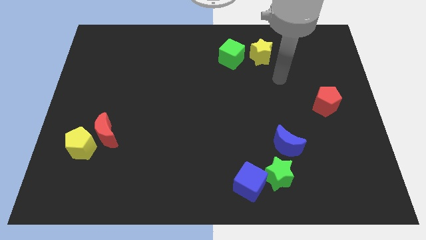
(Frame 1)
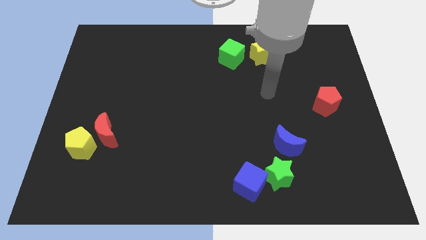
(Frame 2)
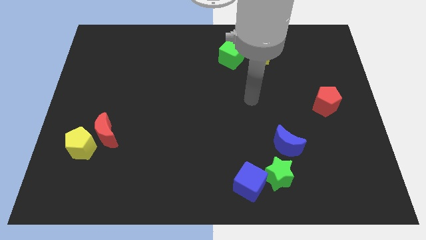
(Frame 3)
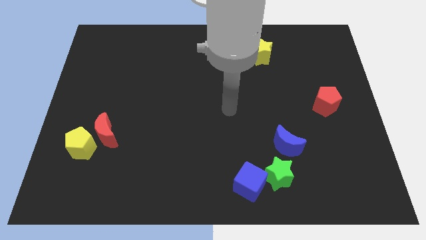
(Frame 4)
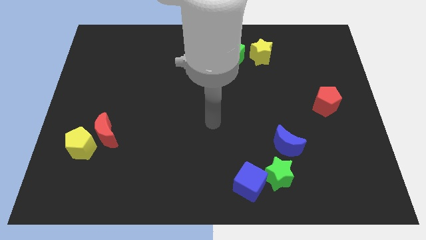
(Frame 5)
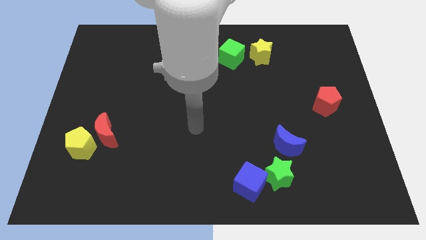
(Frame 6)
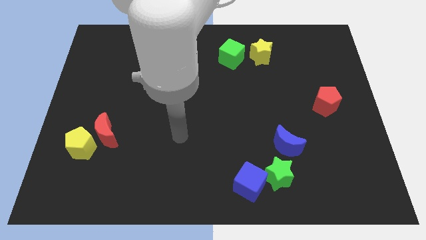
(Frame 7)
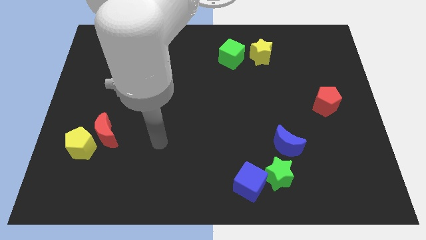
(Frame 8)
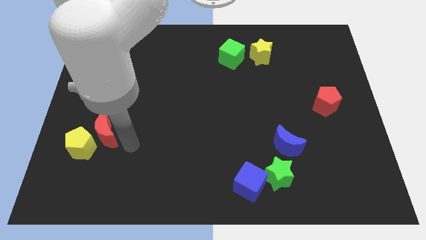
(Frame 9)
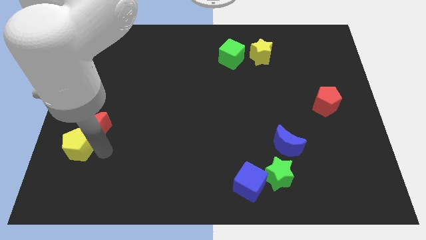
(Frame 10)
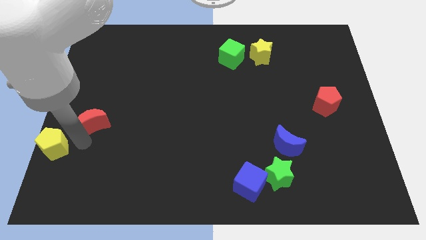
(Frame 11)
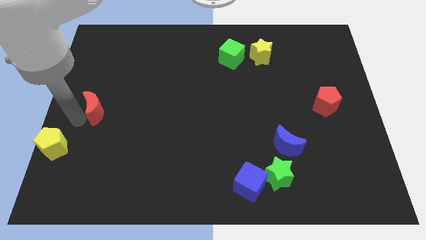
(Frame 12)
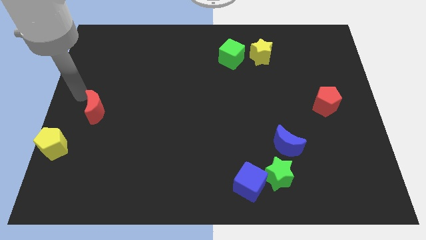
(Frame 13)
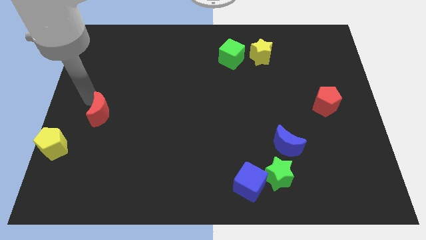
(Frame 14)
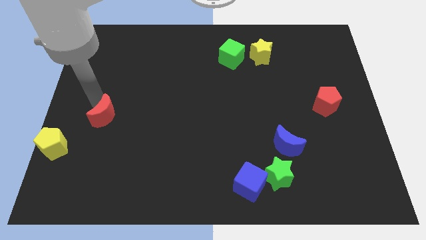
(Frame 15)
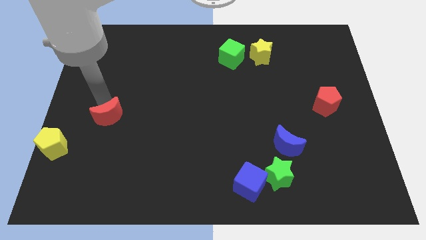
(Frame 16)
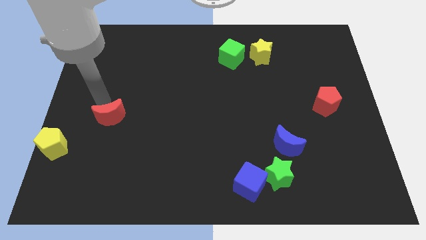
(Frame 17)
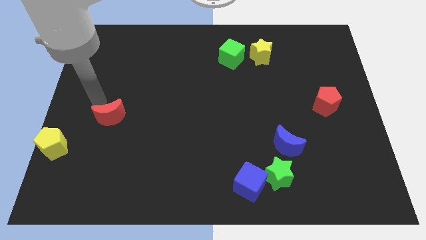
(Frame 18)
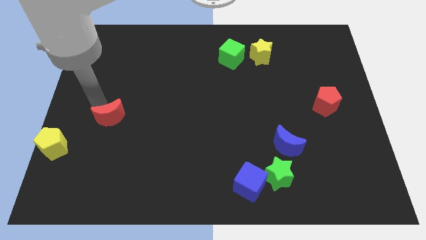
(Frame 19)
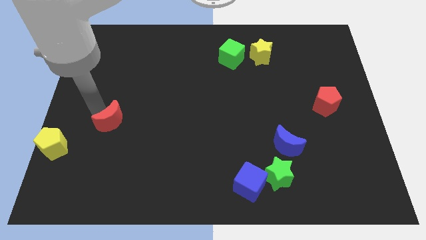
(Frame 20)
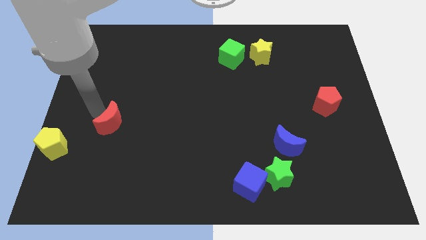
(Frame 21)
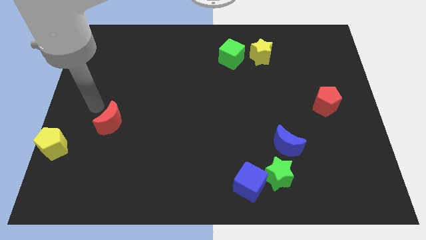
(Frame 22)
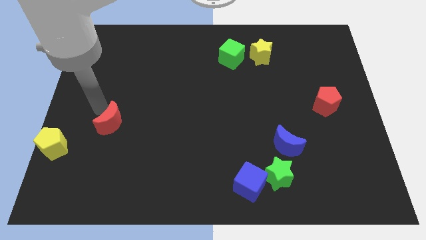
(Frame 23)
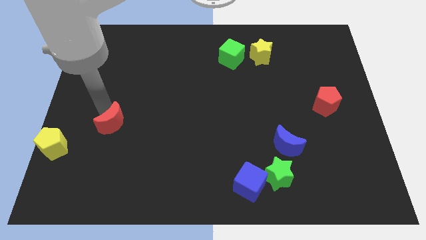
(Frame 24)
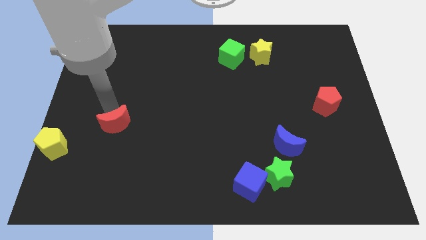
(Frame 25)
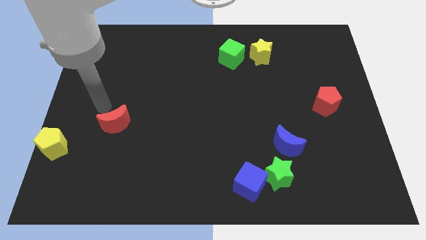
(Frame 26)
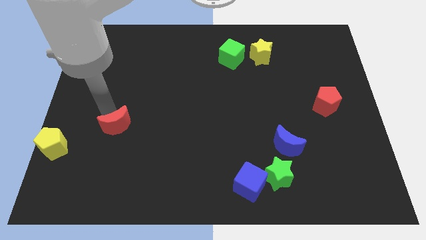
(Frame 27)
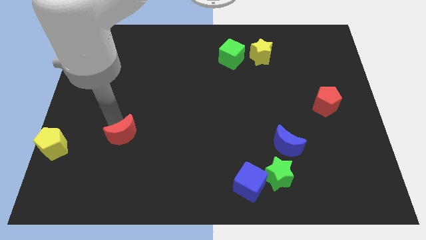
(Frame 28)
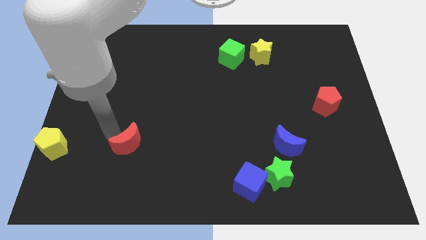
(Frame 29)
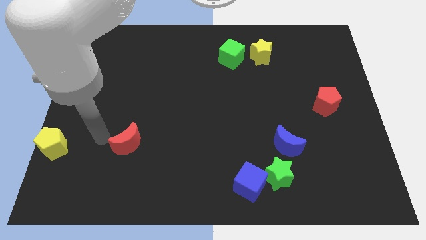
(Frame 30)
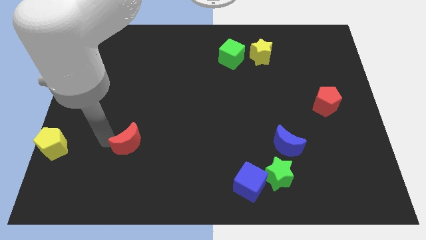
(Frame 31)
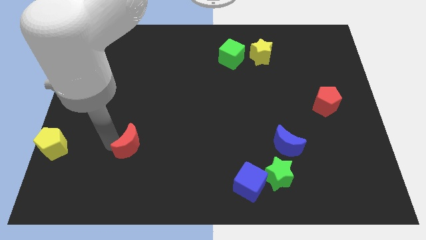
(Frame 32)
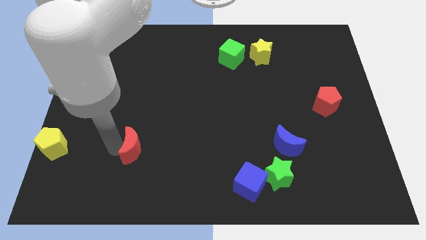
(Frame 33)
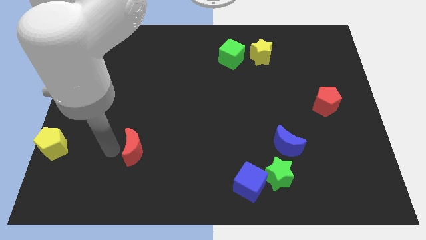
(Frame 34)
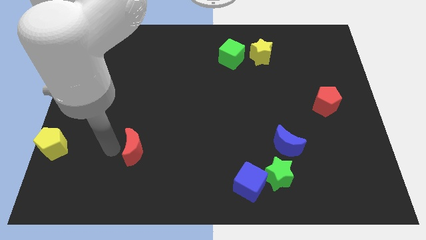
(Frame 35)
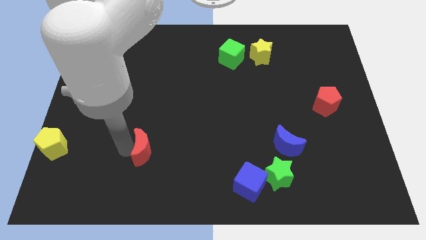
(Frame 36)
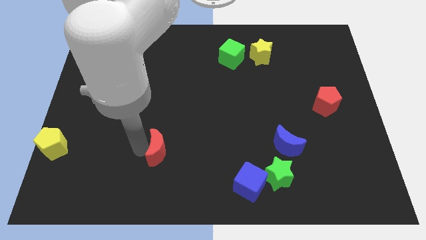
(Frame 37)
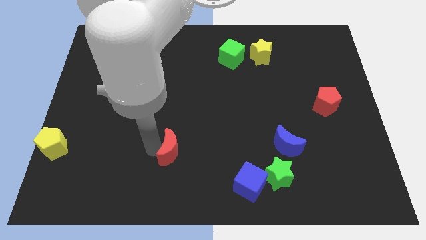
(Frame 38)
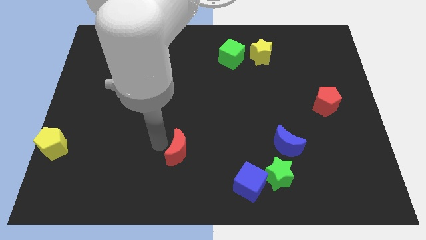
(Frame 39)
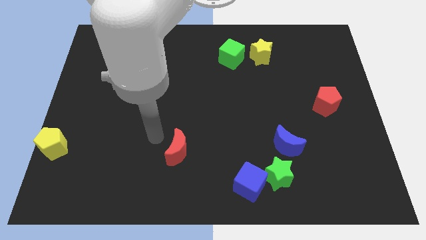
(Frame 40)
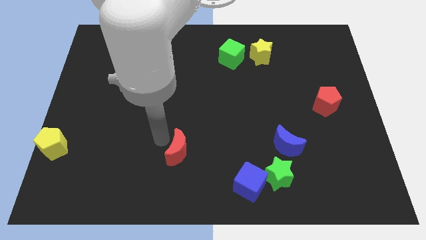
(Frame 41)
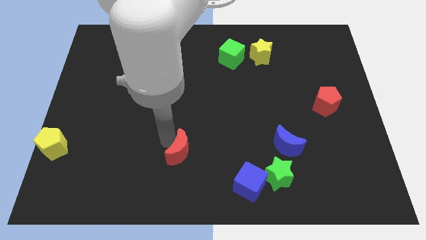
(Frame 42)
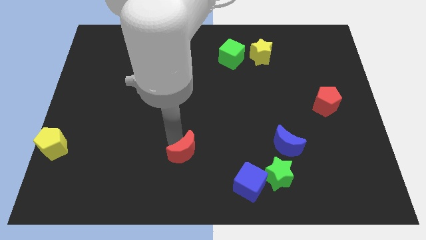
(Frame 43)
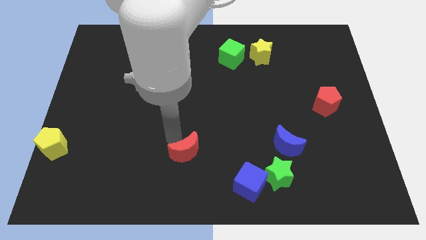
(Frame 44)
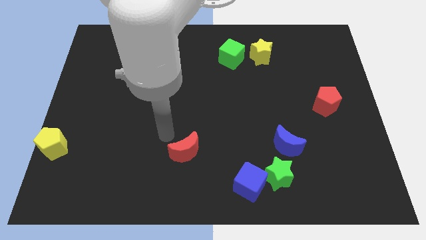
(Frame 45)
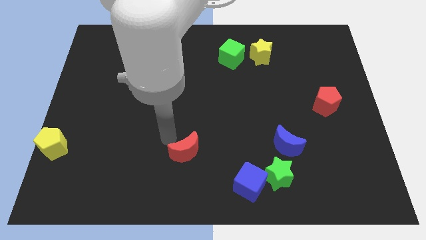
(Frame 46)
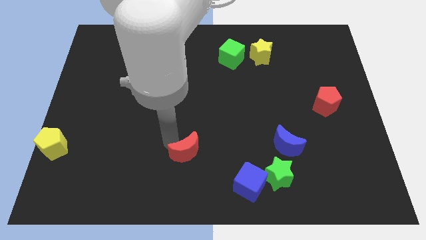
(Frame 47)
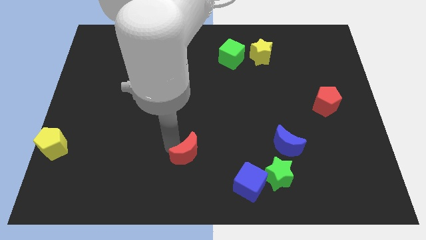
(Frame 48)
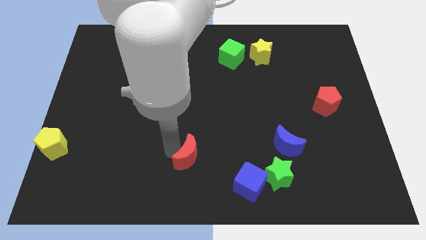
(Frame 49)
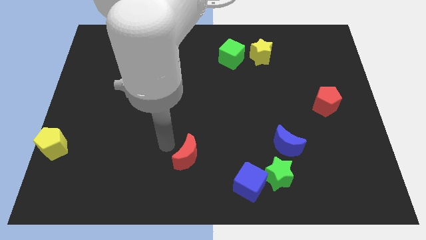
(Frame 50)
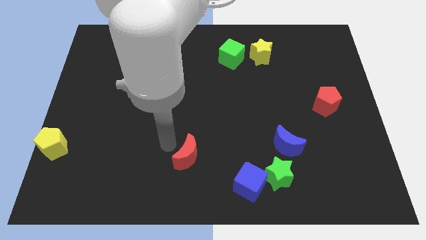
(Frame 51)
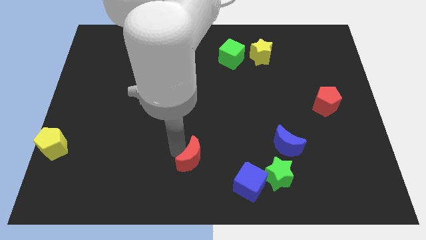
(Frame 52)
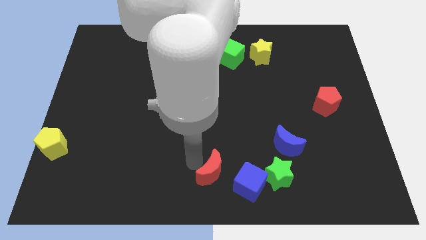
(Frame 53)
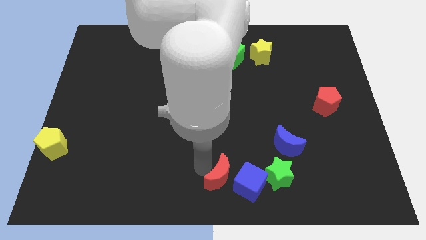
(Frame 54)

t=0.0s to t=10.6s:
slide the red moon next to the blue cube
